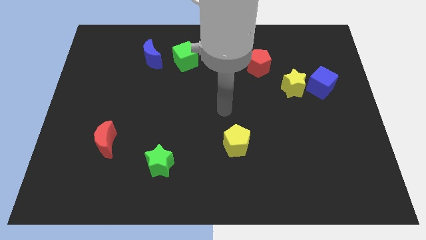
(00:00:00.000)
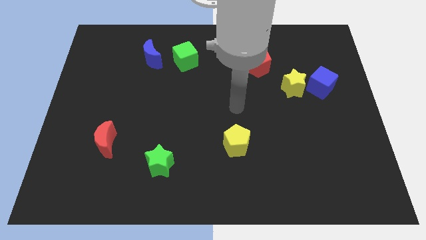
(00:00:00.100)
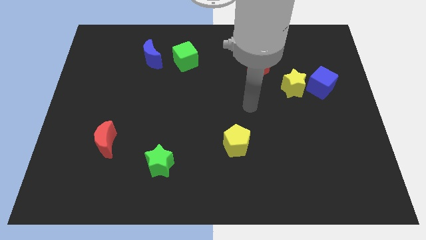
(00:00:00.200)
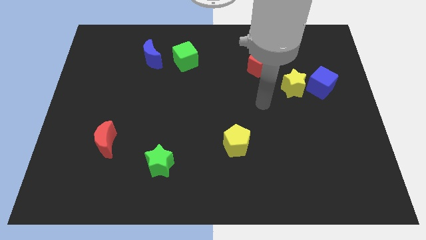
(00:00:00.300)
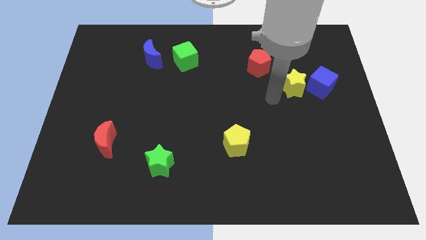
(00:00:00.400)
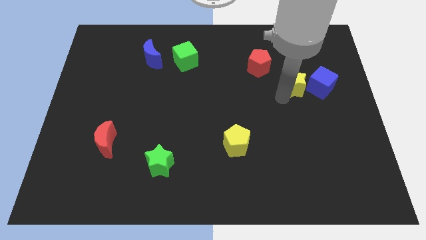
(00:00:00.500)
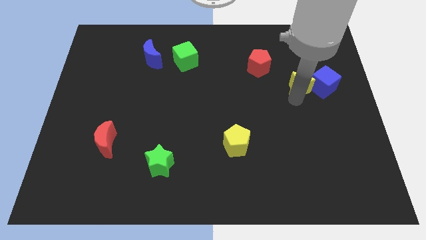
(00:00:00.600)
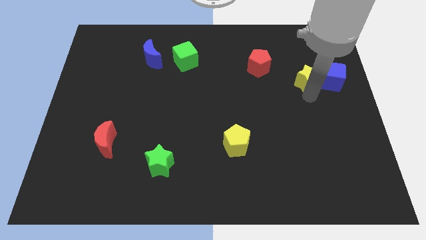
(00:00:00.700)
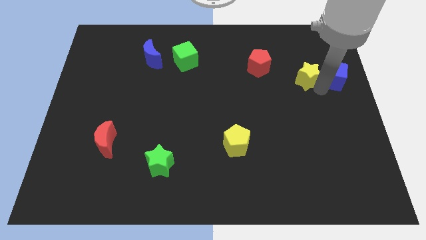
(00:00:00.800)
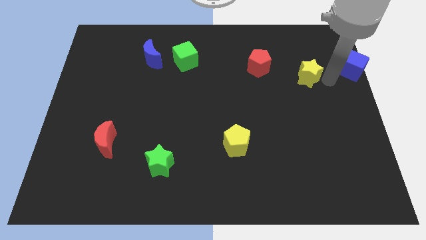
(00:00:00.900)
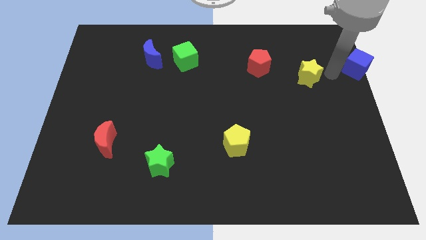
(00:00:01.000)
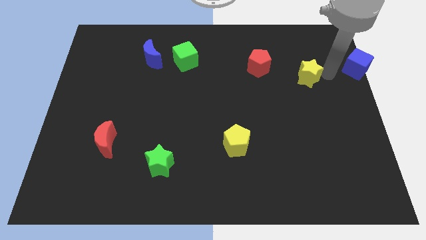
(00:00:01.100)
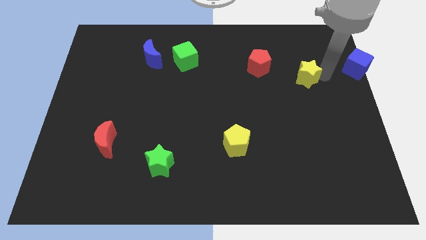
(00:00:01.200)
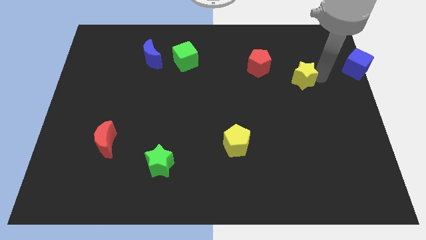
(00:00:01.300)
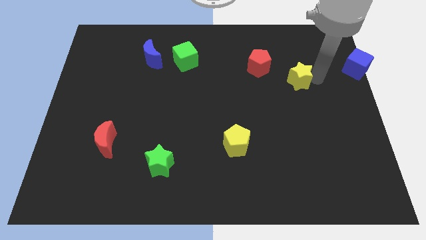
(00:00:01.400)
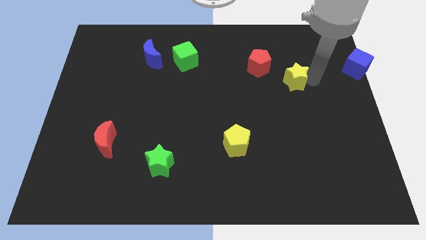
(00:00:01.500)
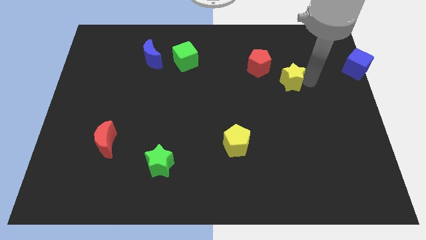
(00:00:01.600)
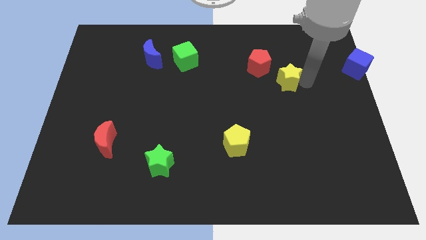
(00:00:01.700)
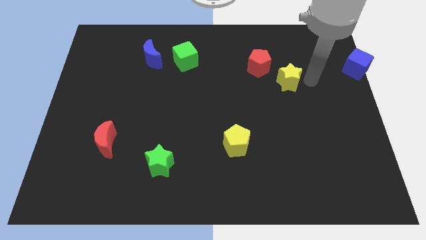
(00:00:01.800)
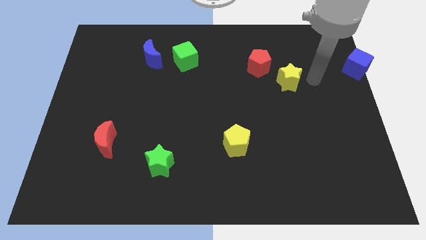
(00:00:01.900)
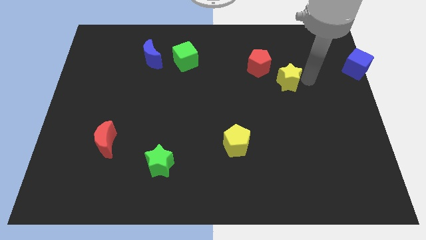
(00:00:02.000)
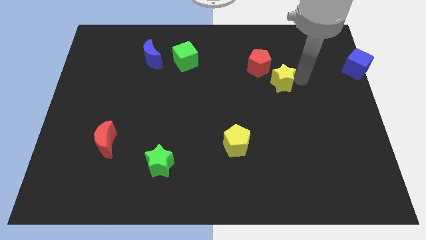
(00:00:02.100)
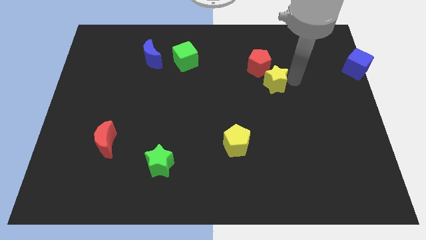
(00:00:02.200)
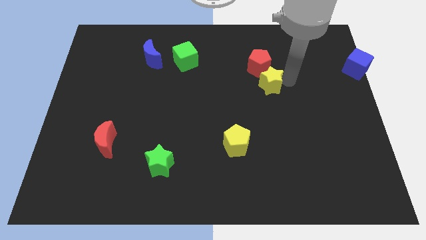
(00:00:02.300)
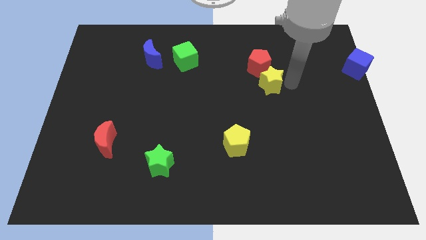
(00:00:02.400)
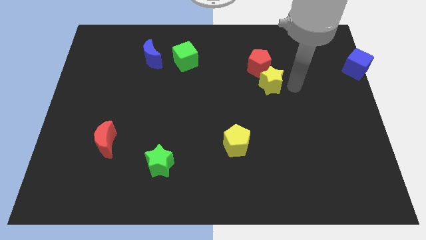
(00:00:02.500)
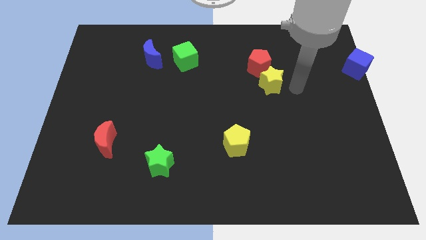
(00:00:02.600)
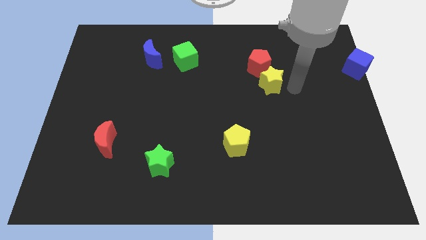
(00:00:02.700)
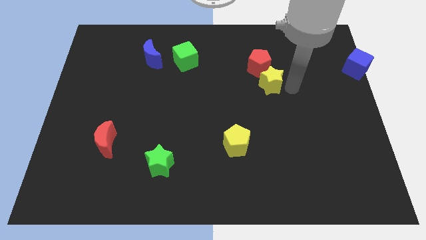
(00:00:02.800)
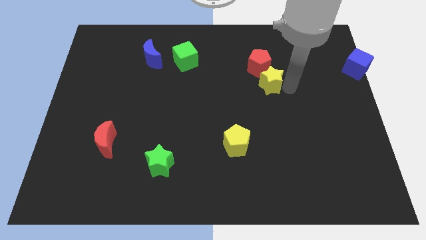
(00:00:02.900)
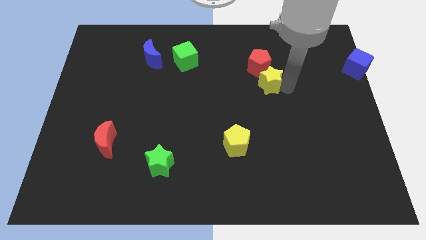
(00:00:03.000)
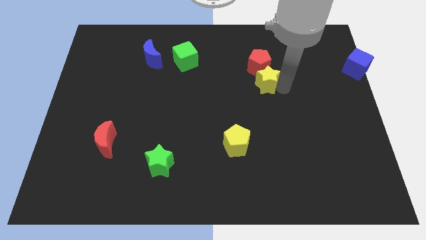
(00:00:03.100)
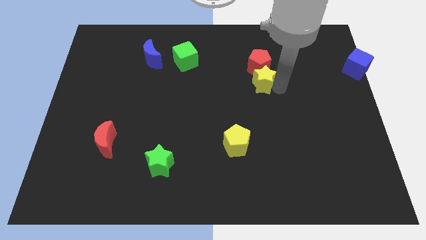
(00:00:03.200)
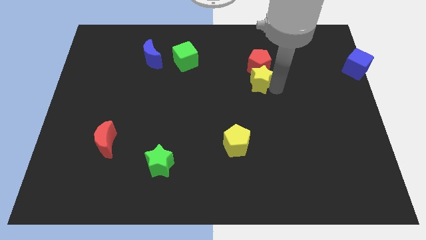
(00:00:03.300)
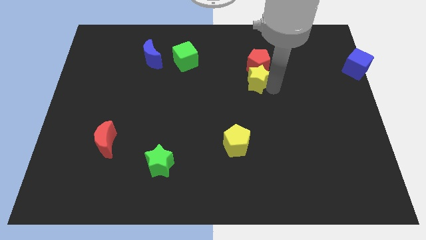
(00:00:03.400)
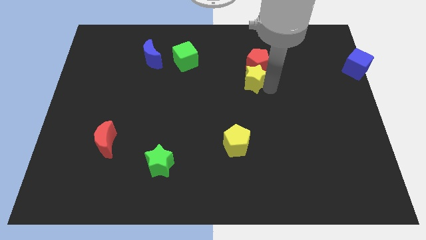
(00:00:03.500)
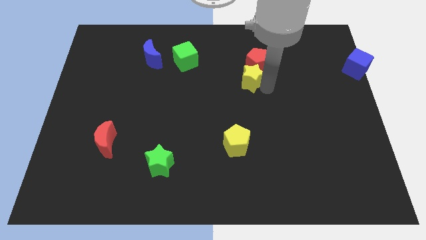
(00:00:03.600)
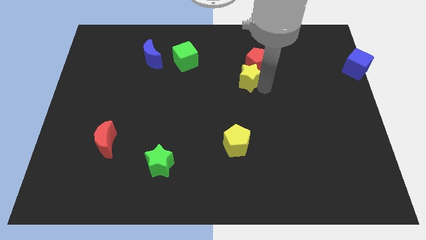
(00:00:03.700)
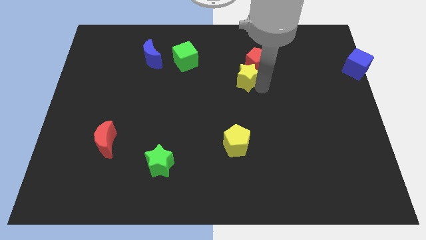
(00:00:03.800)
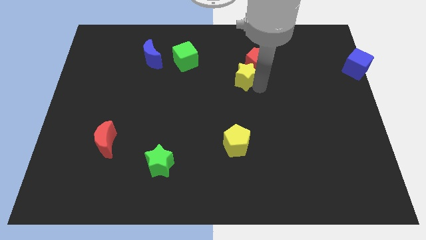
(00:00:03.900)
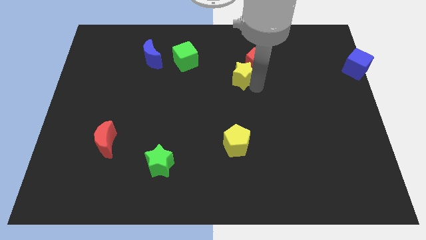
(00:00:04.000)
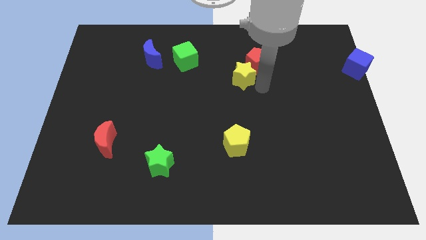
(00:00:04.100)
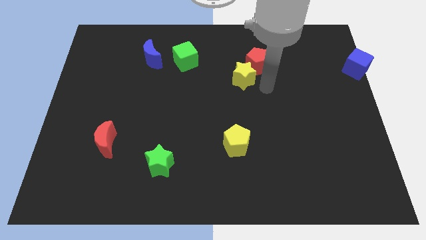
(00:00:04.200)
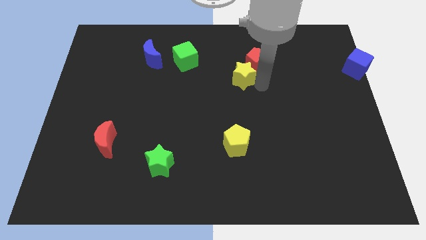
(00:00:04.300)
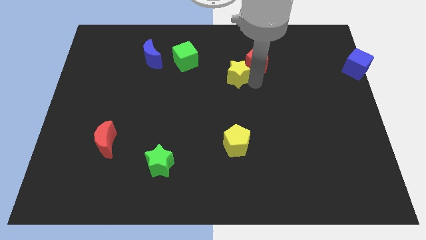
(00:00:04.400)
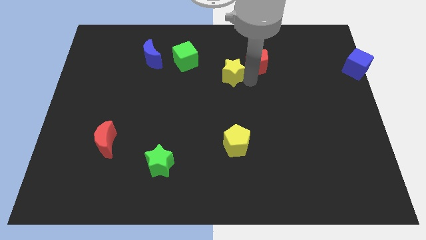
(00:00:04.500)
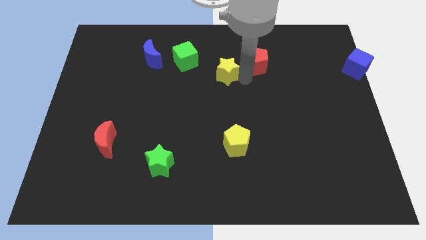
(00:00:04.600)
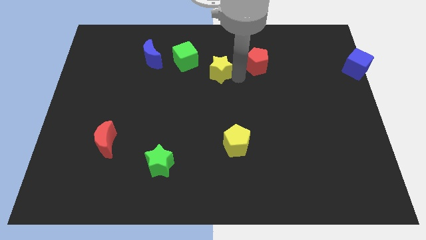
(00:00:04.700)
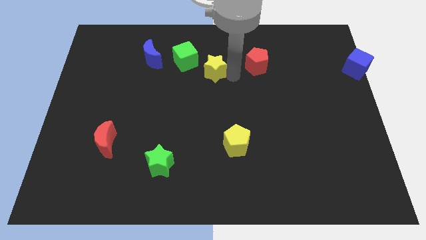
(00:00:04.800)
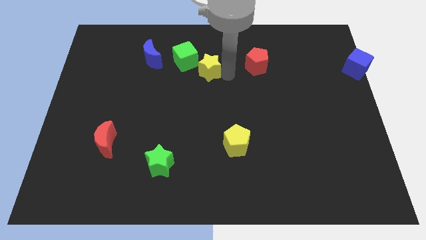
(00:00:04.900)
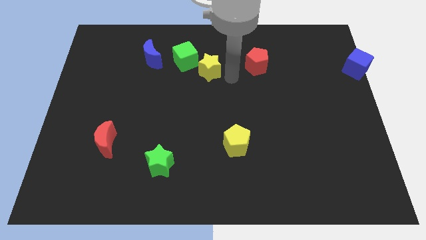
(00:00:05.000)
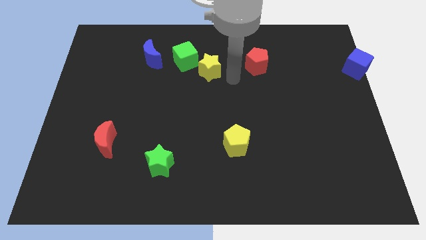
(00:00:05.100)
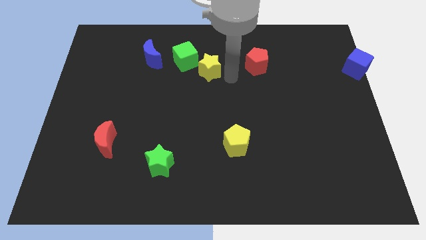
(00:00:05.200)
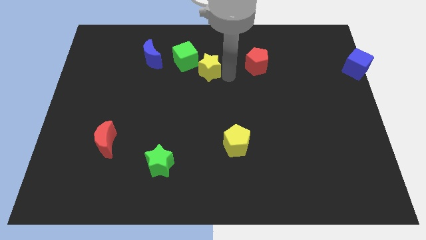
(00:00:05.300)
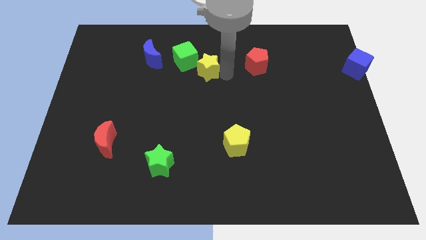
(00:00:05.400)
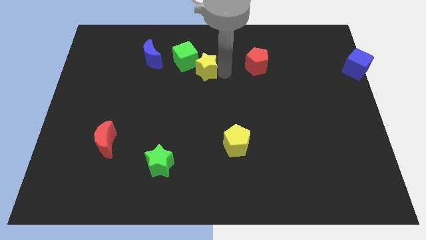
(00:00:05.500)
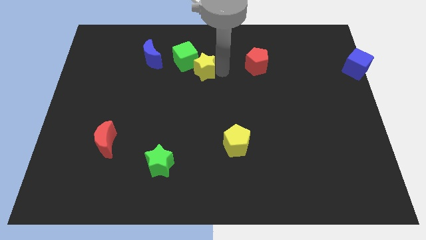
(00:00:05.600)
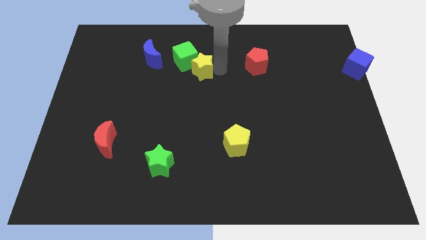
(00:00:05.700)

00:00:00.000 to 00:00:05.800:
push the yellow star close to the green cube
